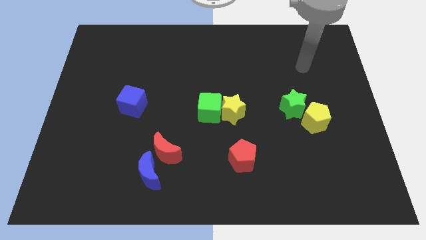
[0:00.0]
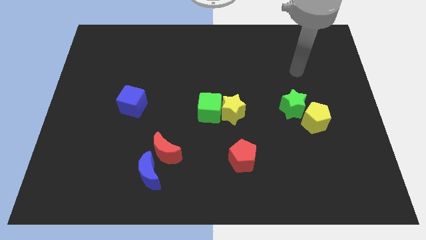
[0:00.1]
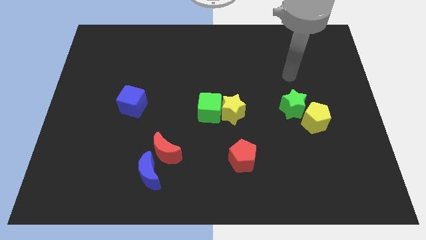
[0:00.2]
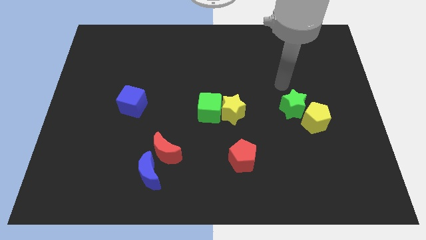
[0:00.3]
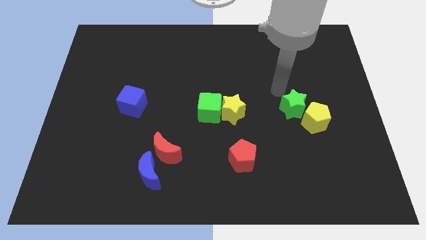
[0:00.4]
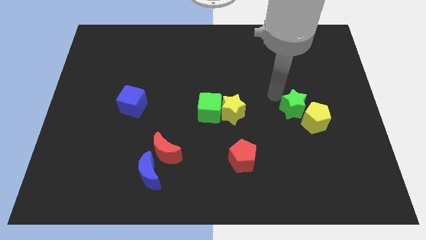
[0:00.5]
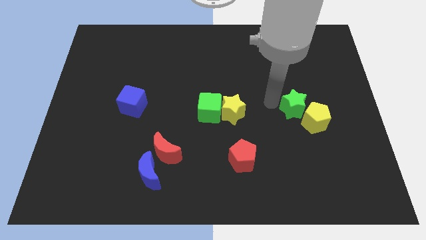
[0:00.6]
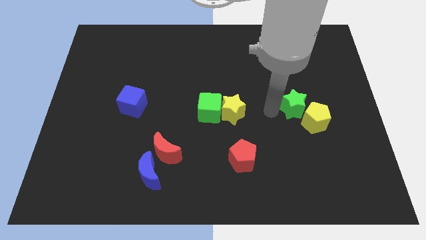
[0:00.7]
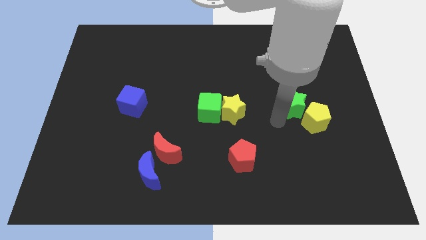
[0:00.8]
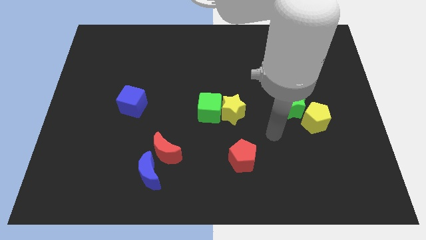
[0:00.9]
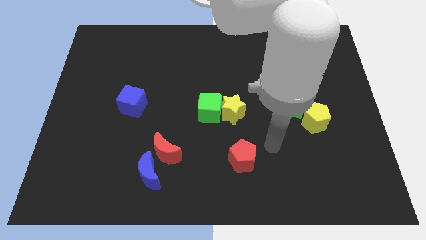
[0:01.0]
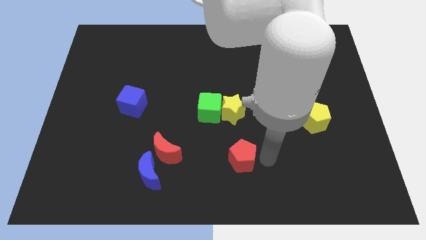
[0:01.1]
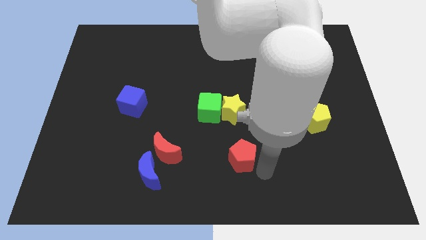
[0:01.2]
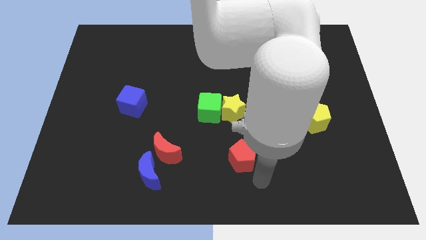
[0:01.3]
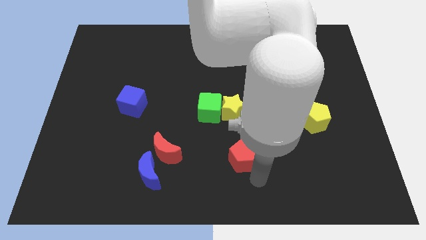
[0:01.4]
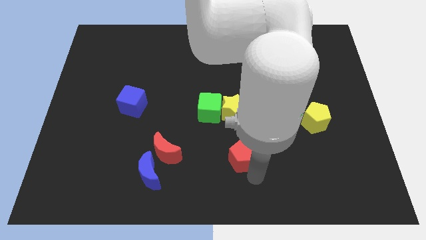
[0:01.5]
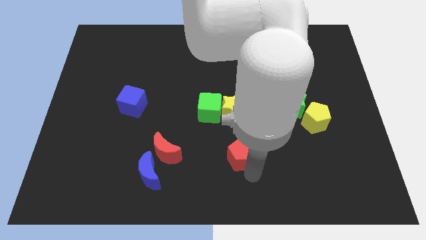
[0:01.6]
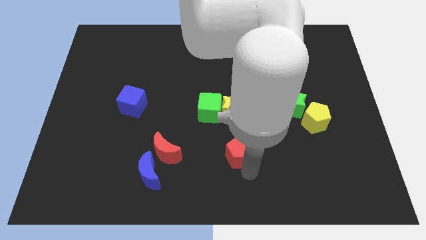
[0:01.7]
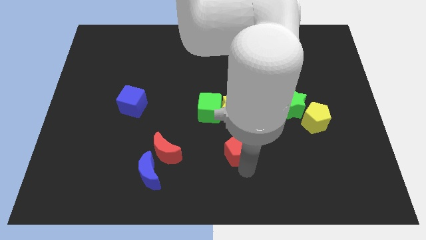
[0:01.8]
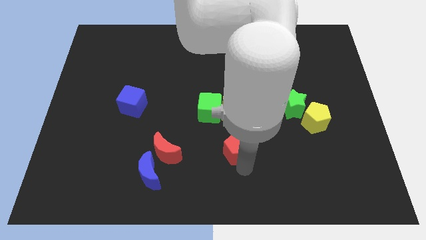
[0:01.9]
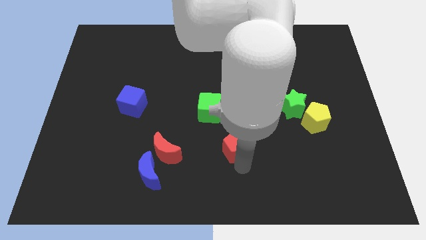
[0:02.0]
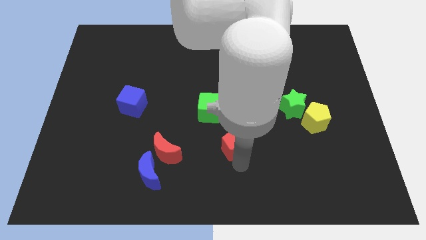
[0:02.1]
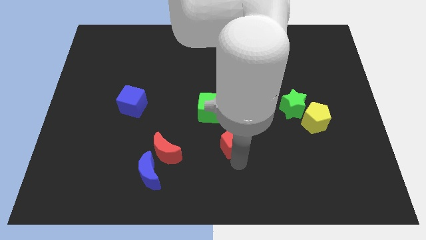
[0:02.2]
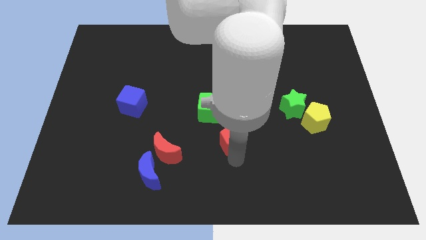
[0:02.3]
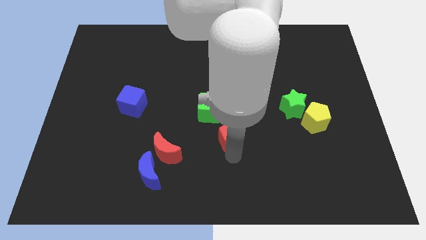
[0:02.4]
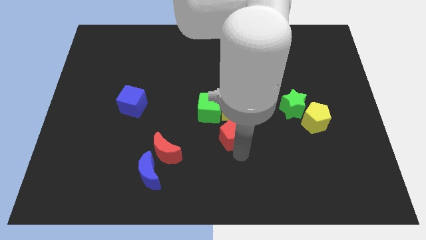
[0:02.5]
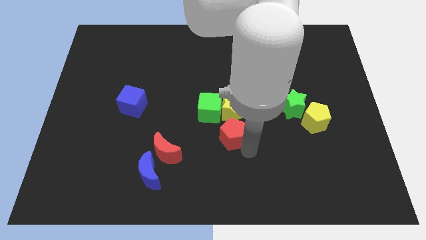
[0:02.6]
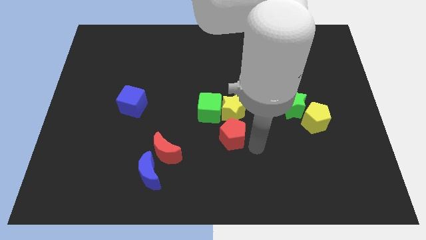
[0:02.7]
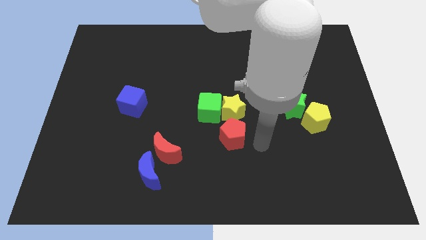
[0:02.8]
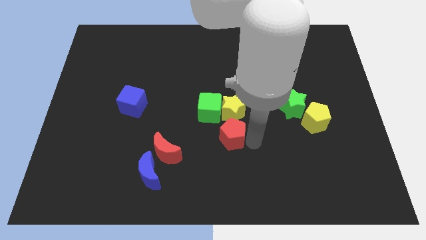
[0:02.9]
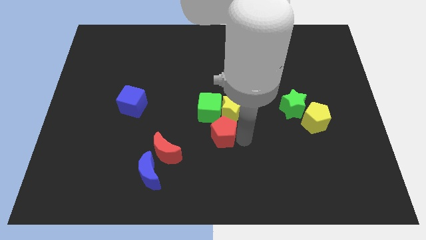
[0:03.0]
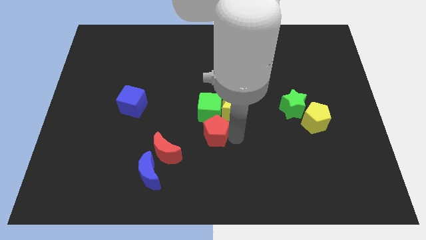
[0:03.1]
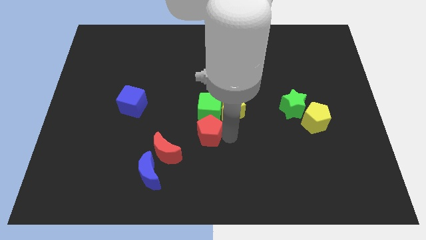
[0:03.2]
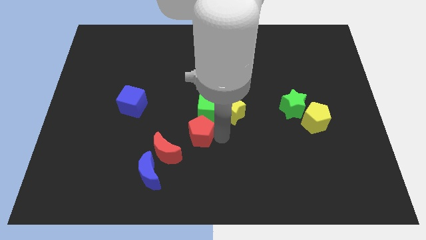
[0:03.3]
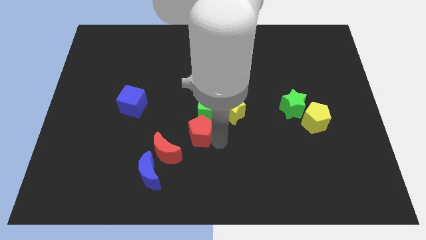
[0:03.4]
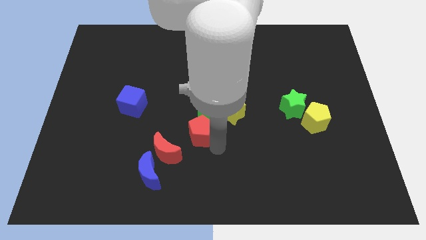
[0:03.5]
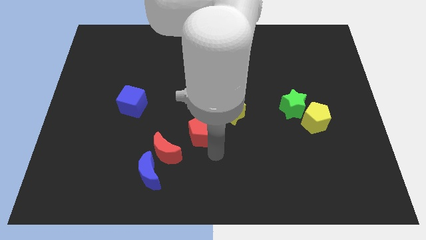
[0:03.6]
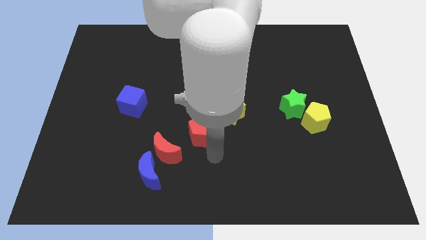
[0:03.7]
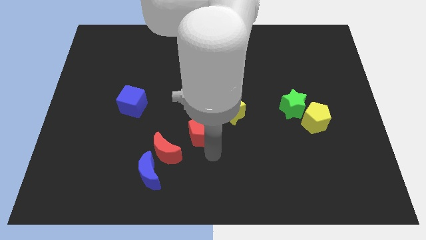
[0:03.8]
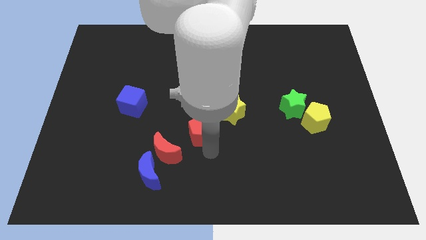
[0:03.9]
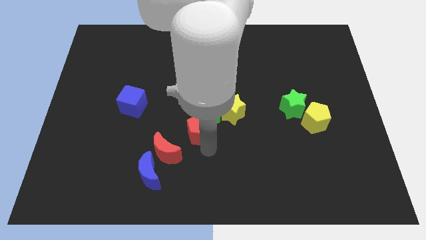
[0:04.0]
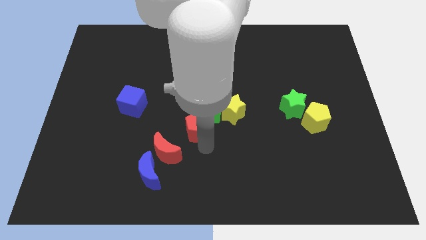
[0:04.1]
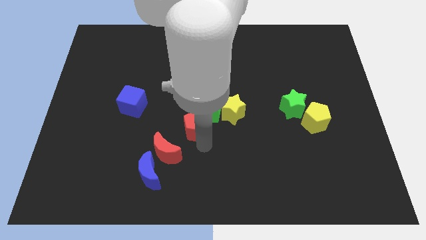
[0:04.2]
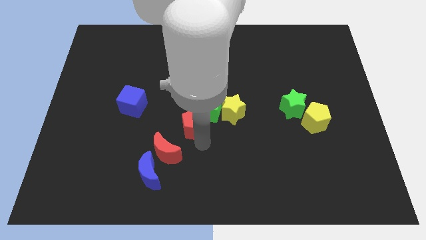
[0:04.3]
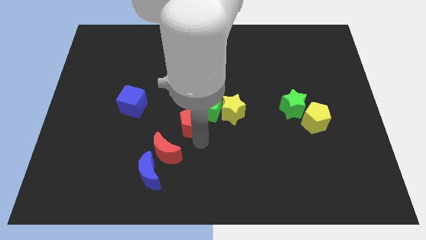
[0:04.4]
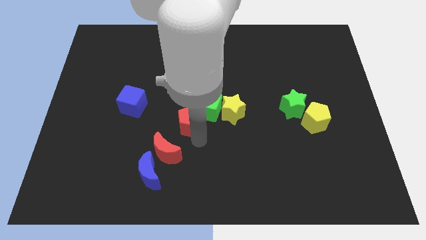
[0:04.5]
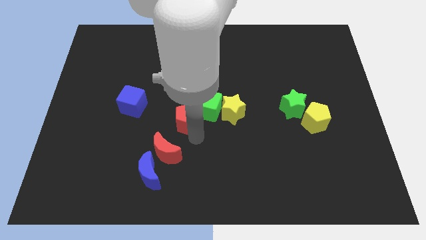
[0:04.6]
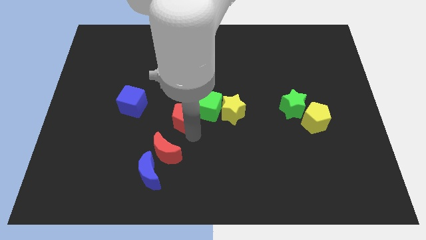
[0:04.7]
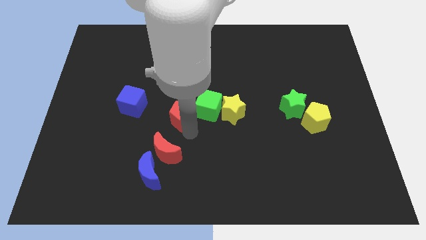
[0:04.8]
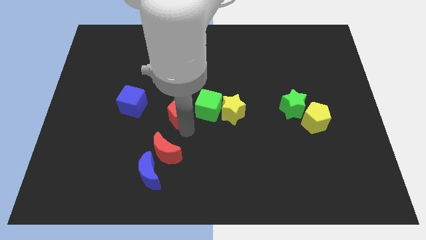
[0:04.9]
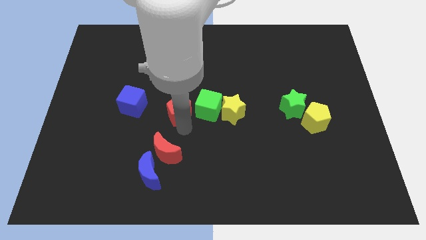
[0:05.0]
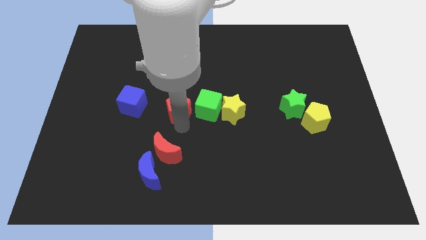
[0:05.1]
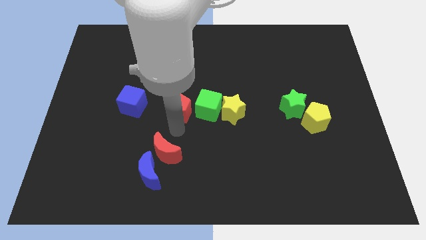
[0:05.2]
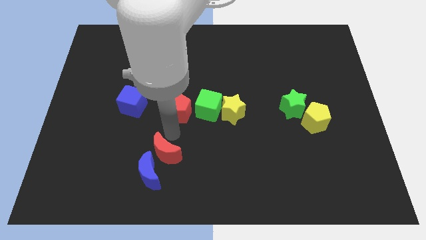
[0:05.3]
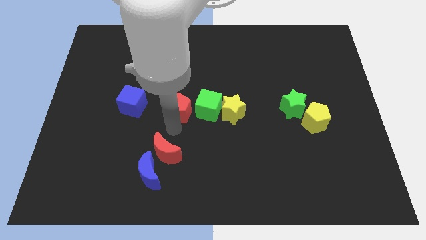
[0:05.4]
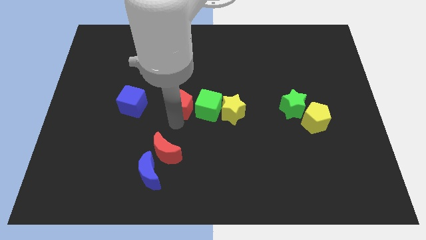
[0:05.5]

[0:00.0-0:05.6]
move the red pentagon diagonally up and to the left of the green cube

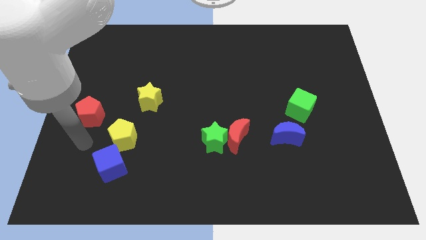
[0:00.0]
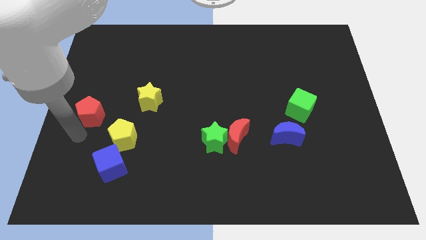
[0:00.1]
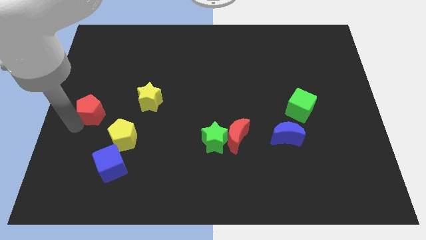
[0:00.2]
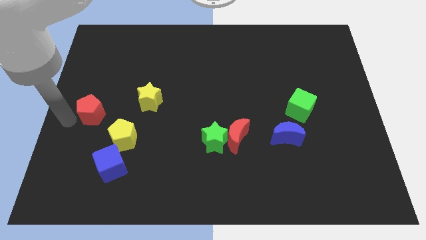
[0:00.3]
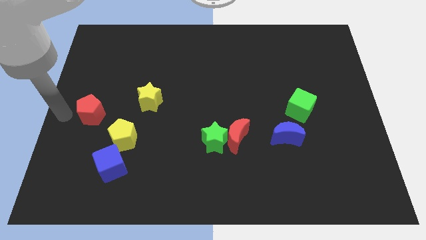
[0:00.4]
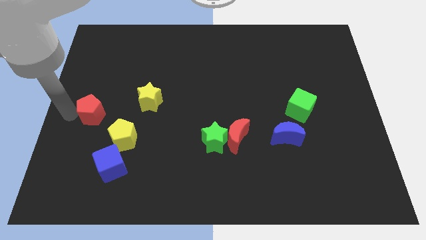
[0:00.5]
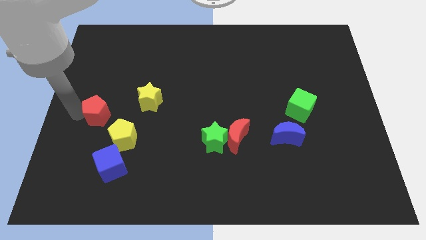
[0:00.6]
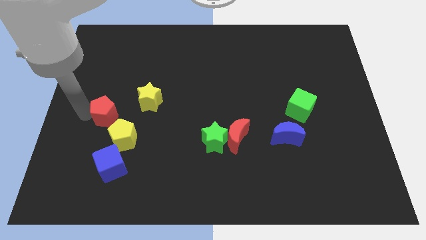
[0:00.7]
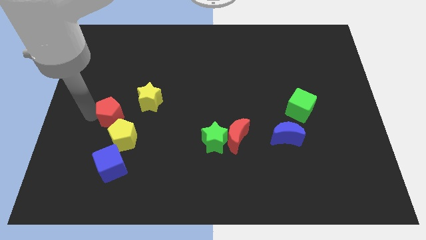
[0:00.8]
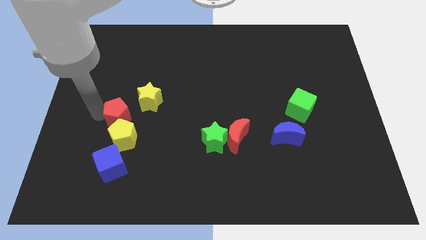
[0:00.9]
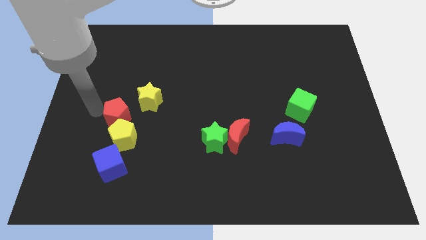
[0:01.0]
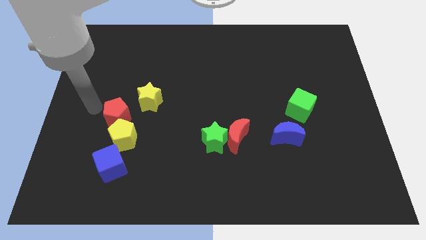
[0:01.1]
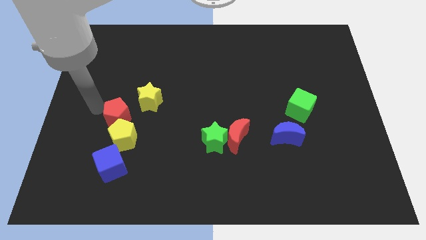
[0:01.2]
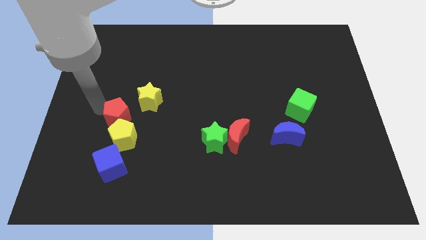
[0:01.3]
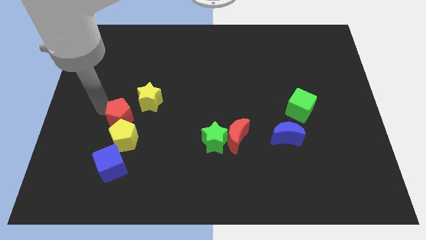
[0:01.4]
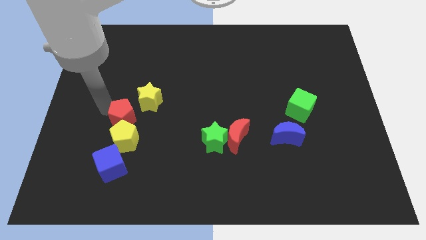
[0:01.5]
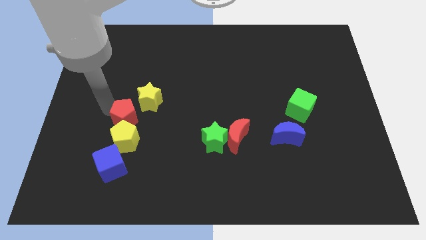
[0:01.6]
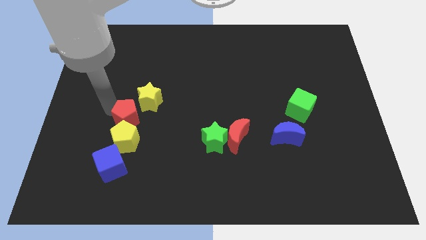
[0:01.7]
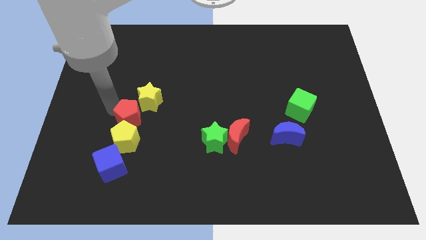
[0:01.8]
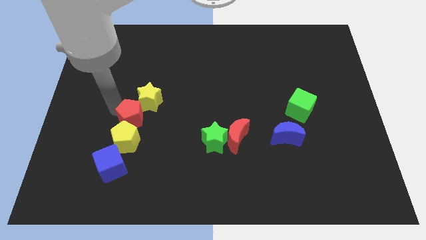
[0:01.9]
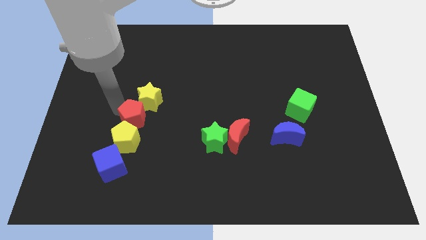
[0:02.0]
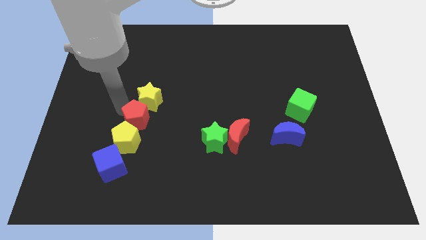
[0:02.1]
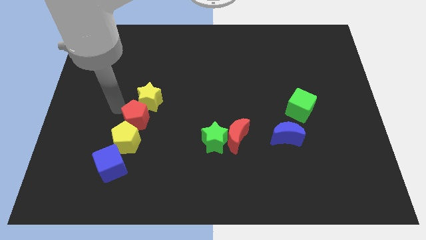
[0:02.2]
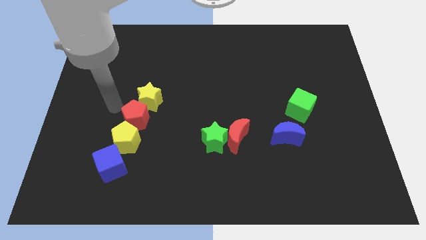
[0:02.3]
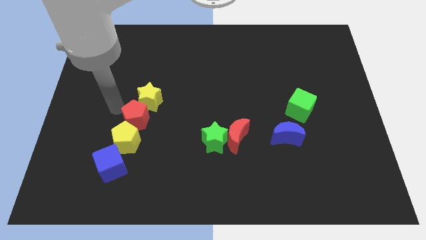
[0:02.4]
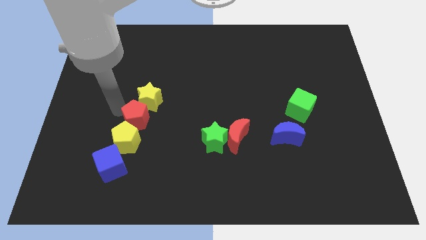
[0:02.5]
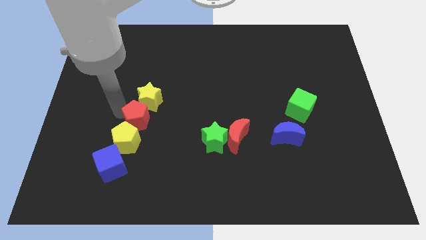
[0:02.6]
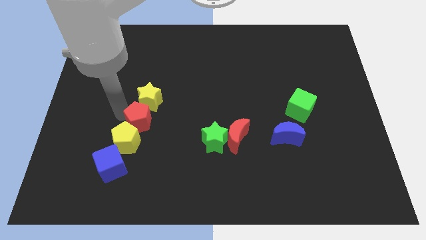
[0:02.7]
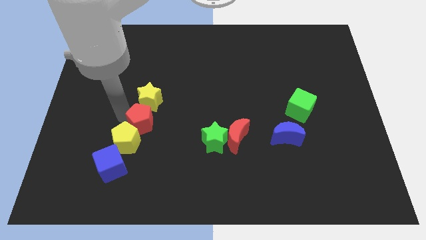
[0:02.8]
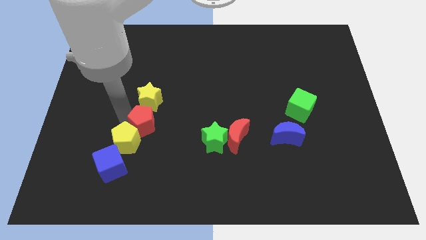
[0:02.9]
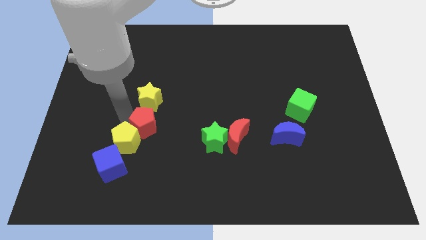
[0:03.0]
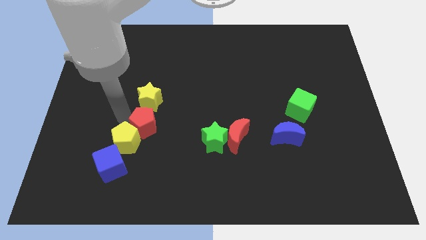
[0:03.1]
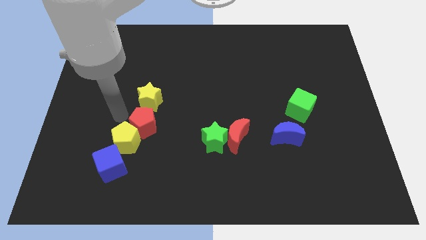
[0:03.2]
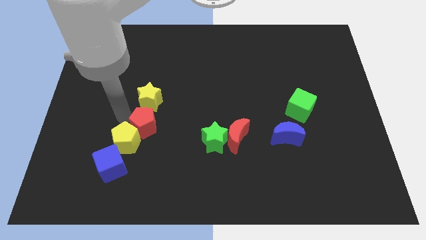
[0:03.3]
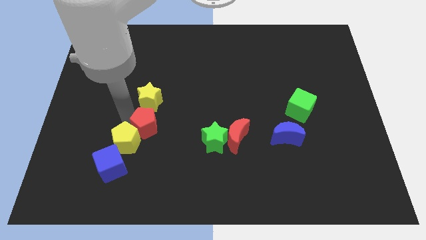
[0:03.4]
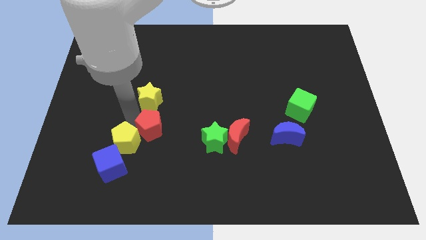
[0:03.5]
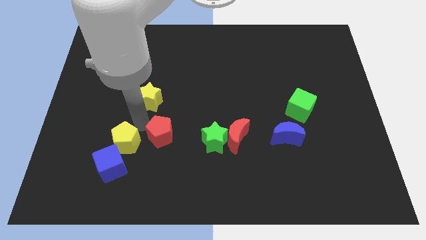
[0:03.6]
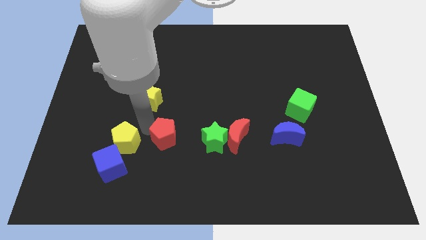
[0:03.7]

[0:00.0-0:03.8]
put the red pentagon just left of the red moon
